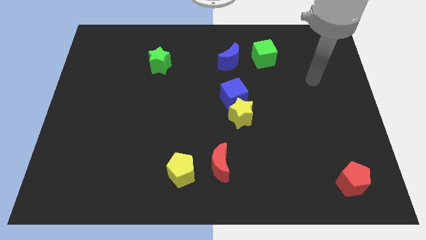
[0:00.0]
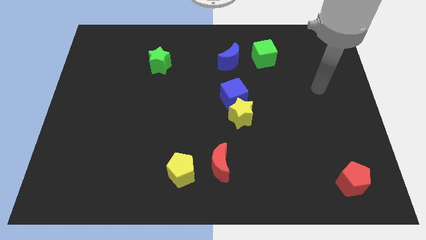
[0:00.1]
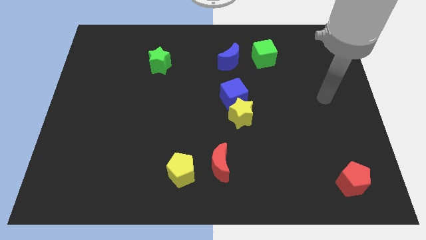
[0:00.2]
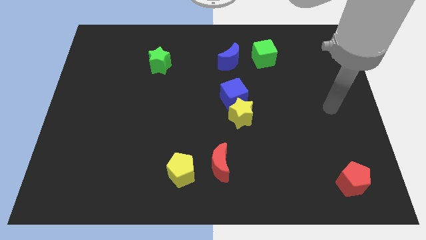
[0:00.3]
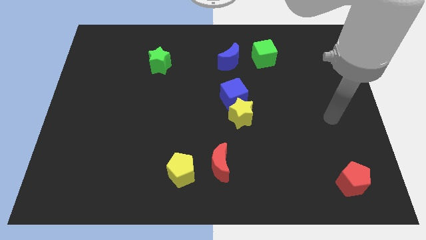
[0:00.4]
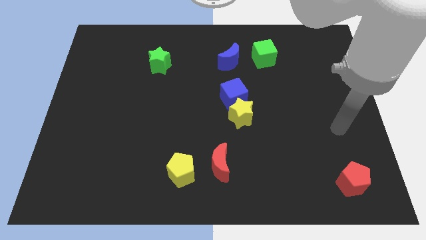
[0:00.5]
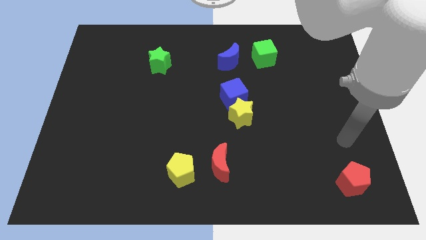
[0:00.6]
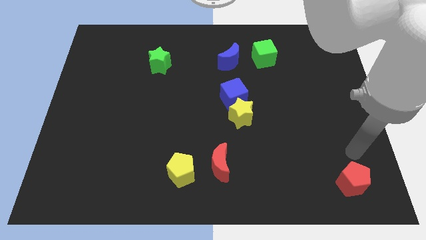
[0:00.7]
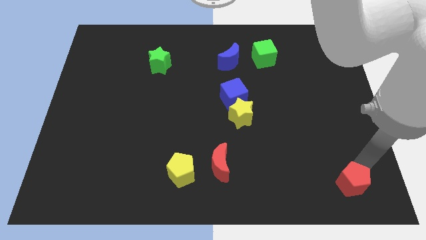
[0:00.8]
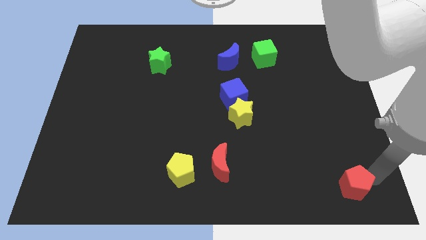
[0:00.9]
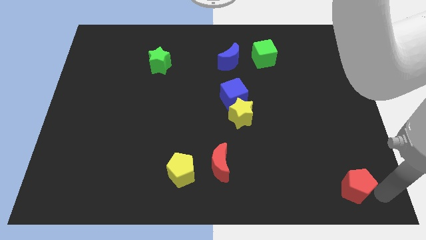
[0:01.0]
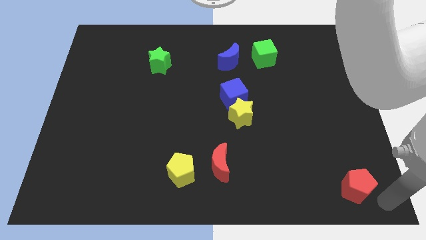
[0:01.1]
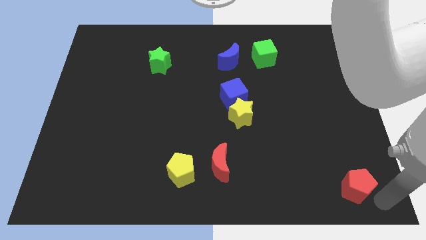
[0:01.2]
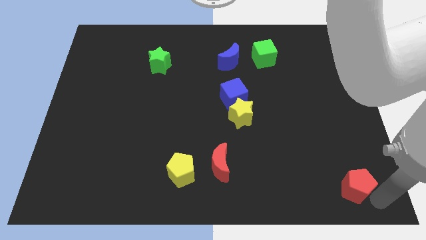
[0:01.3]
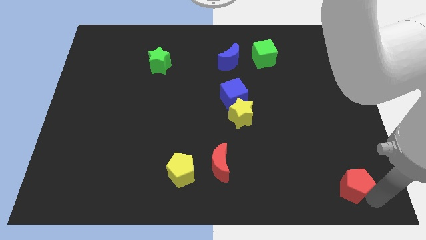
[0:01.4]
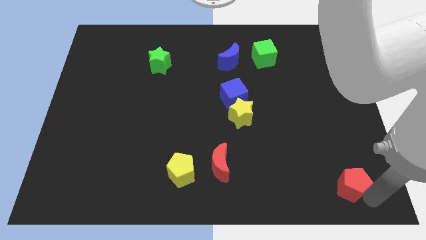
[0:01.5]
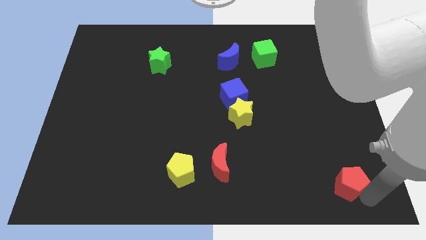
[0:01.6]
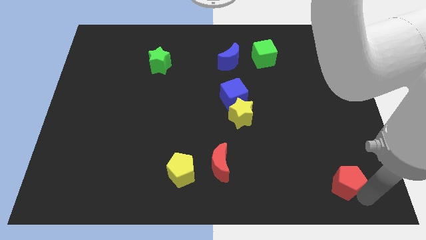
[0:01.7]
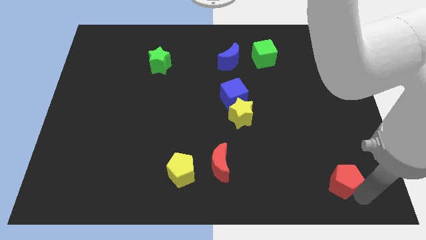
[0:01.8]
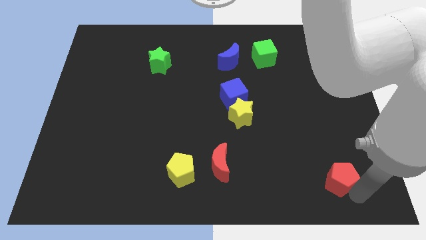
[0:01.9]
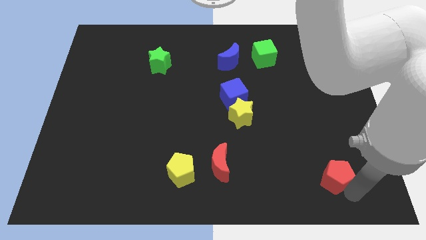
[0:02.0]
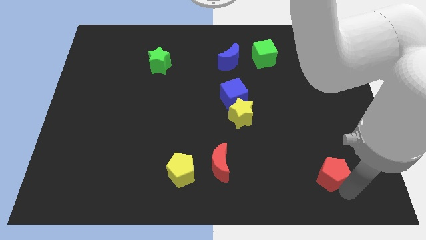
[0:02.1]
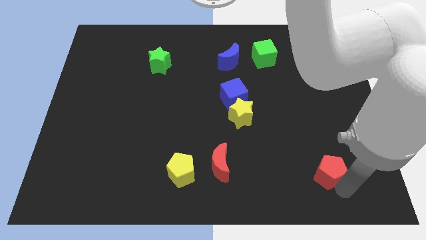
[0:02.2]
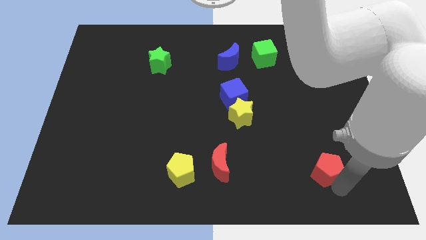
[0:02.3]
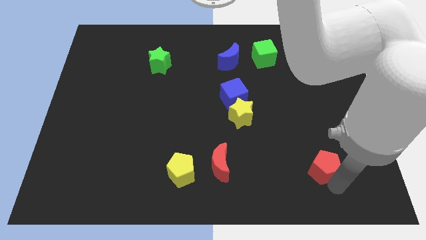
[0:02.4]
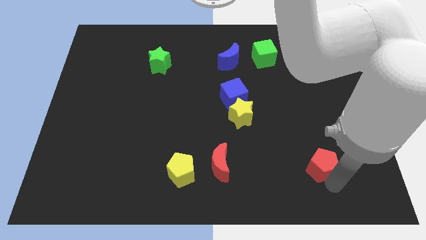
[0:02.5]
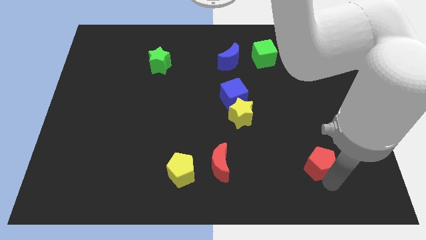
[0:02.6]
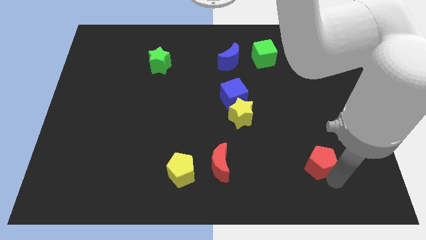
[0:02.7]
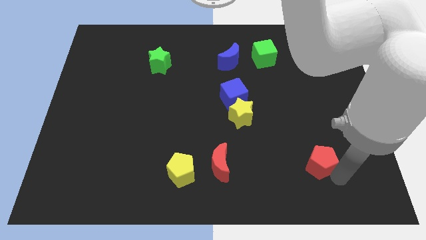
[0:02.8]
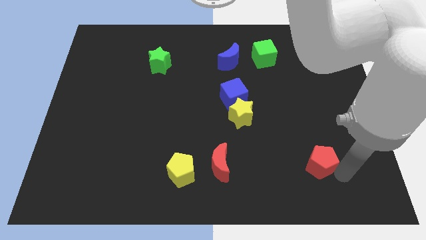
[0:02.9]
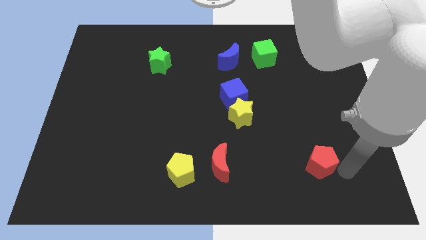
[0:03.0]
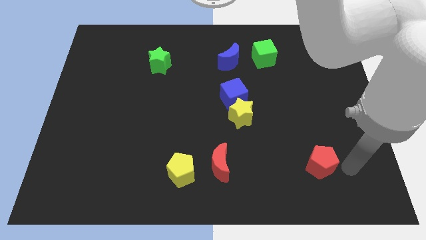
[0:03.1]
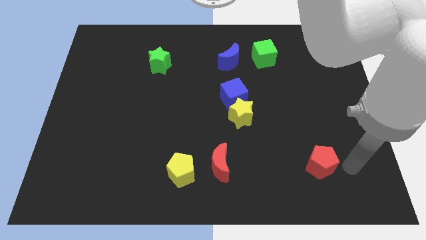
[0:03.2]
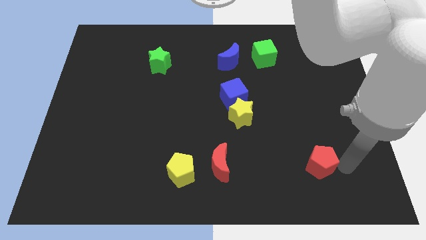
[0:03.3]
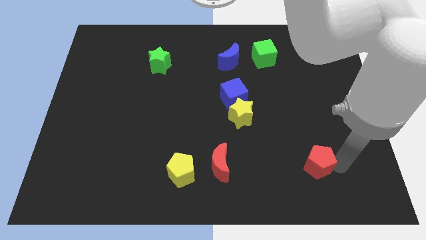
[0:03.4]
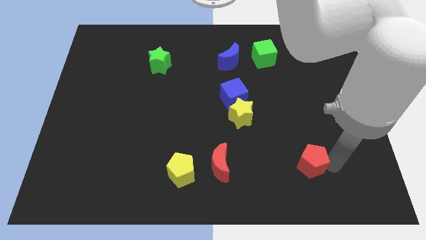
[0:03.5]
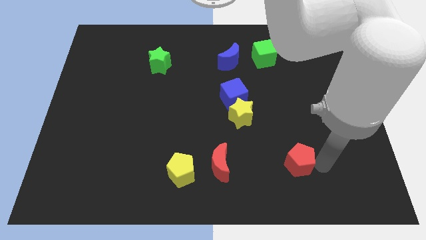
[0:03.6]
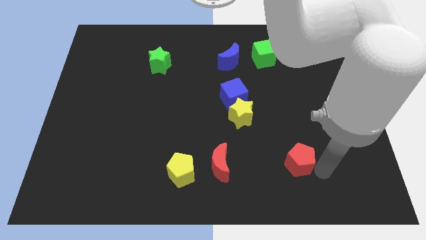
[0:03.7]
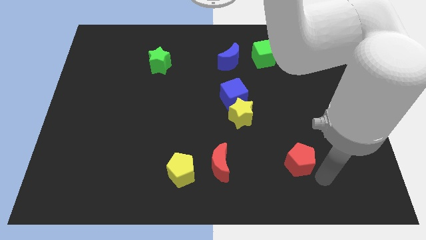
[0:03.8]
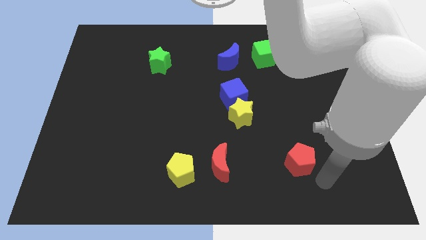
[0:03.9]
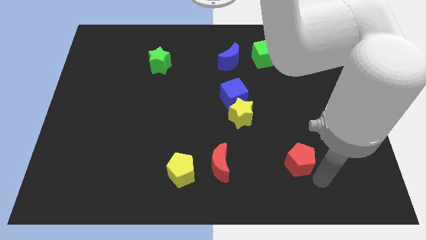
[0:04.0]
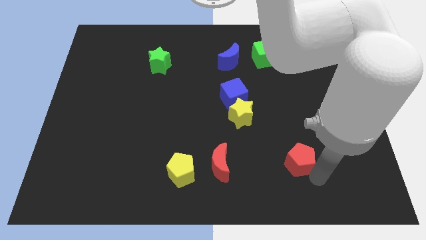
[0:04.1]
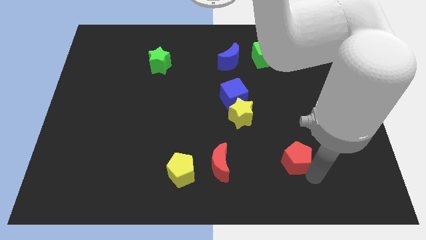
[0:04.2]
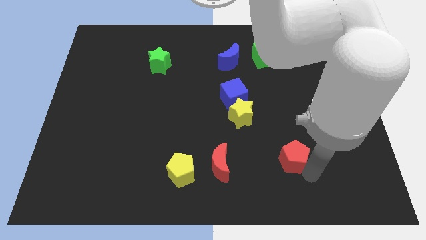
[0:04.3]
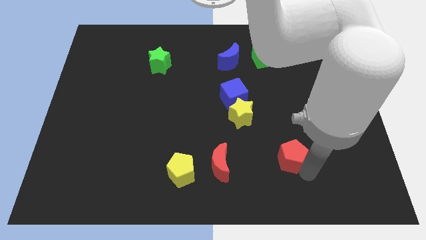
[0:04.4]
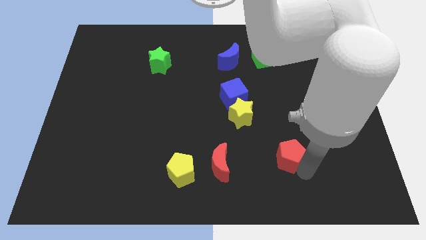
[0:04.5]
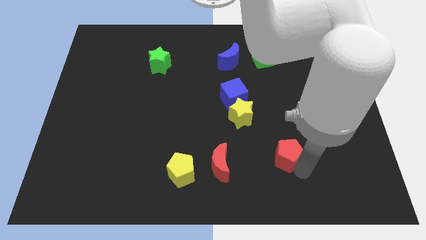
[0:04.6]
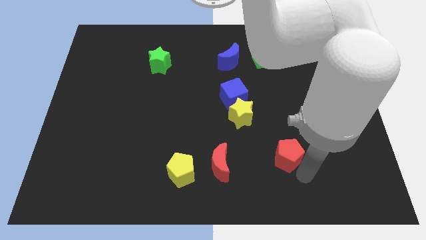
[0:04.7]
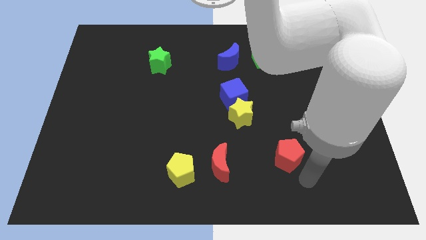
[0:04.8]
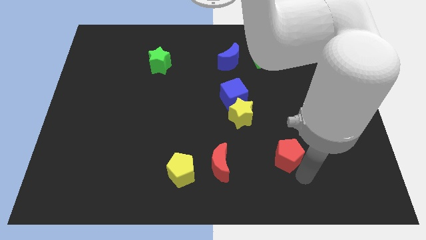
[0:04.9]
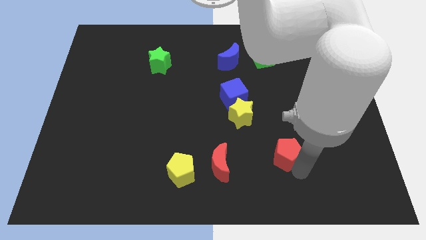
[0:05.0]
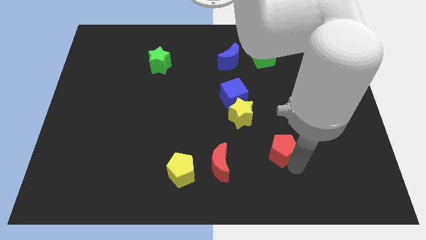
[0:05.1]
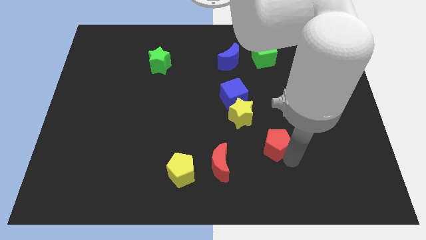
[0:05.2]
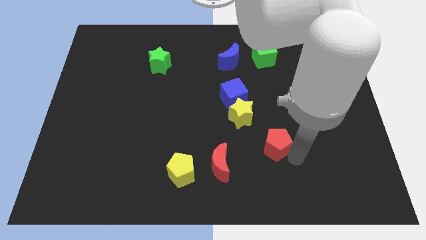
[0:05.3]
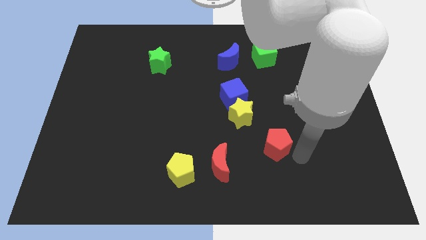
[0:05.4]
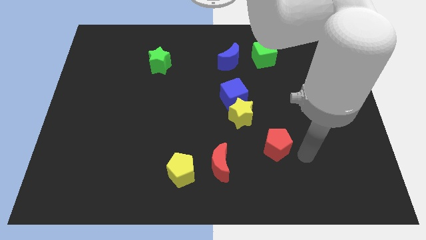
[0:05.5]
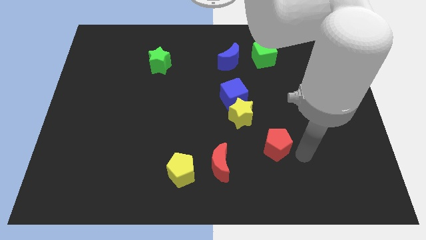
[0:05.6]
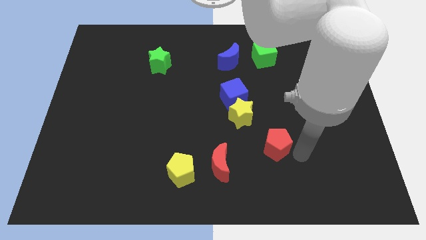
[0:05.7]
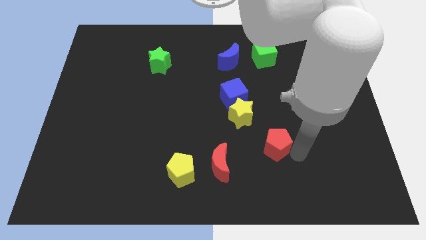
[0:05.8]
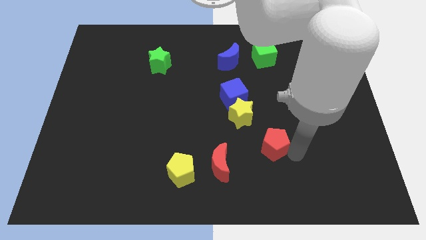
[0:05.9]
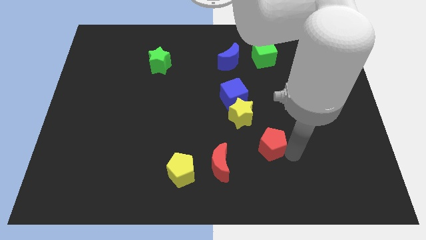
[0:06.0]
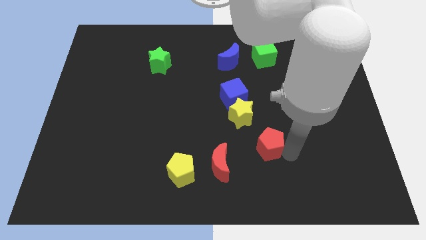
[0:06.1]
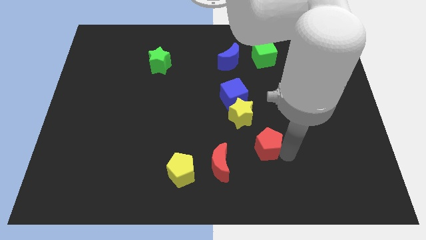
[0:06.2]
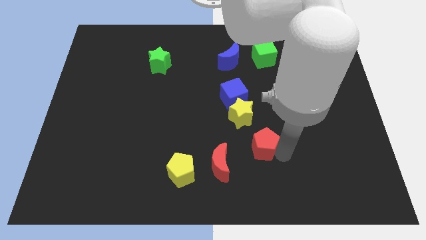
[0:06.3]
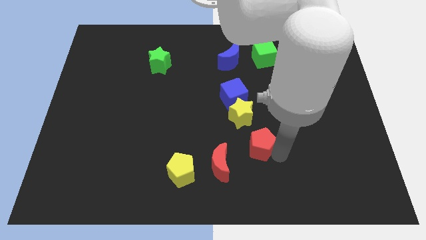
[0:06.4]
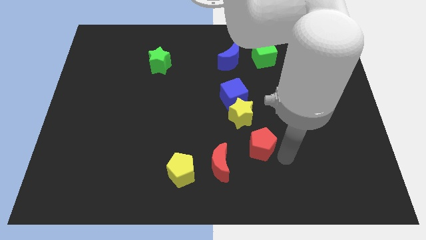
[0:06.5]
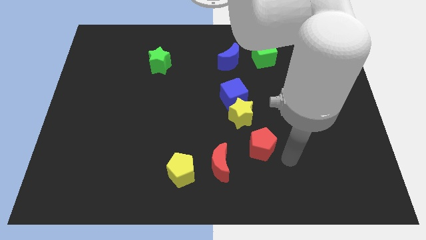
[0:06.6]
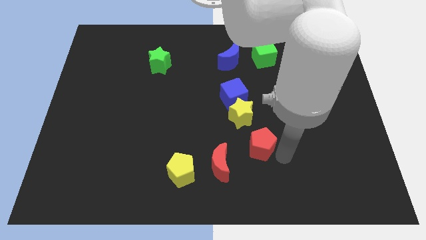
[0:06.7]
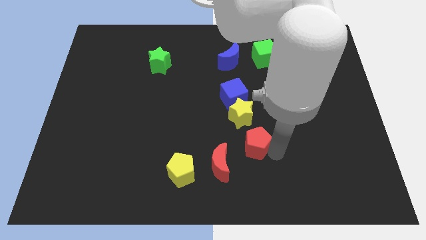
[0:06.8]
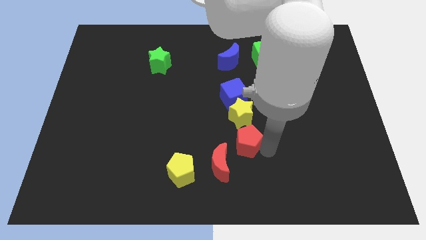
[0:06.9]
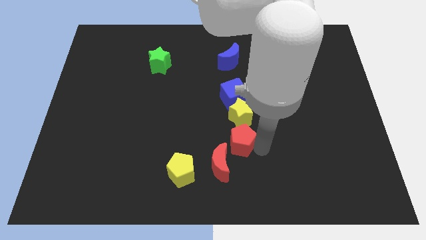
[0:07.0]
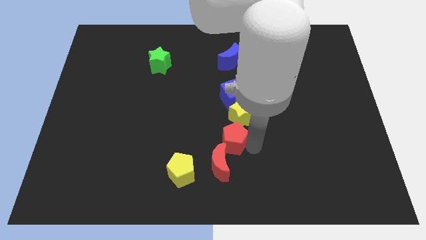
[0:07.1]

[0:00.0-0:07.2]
put the red pentagon to the center of the board
